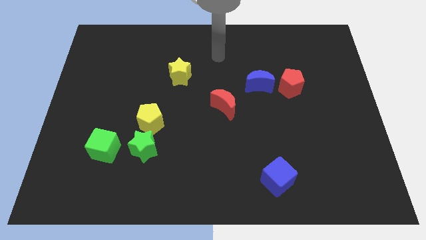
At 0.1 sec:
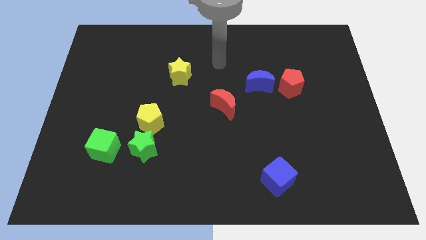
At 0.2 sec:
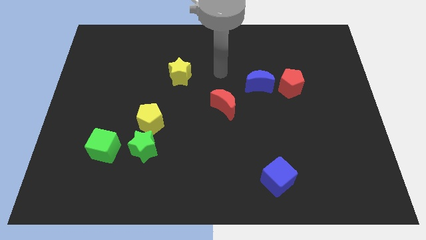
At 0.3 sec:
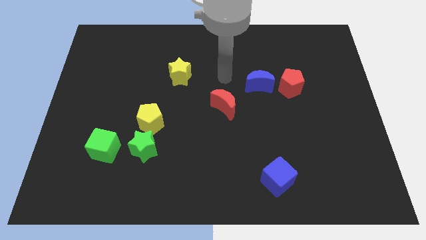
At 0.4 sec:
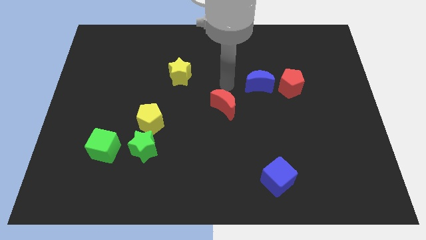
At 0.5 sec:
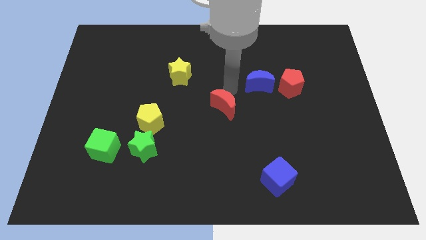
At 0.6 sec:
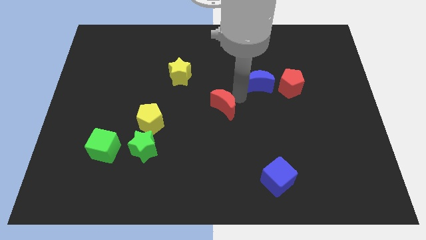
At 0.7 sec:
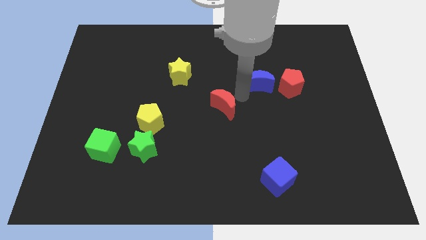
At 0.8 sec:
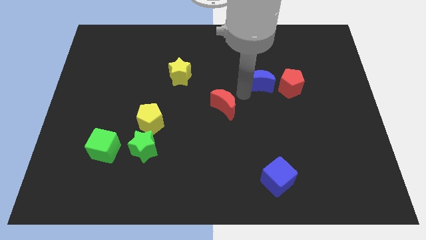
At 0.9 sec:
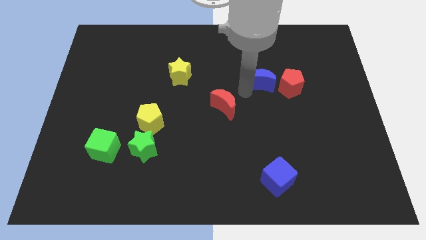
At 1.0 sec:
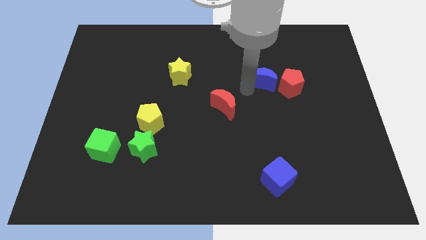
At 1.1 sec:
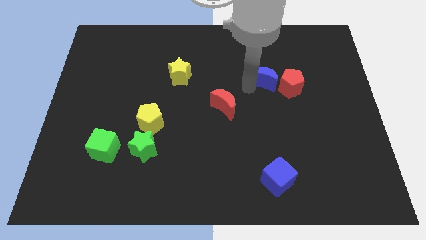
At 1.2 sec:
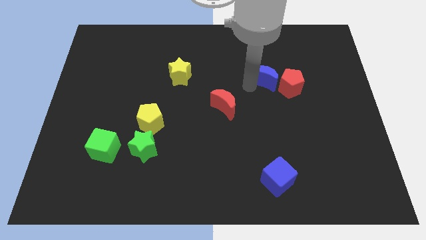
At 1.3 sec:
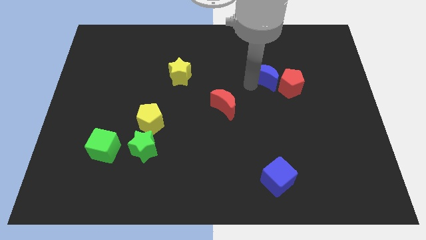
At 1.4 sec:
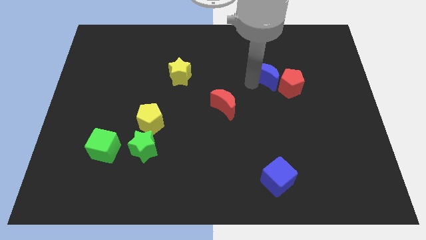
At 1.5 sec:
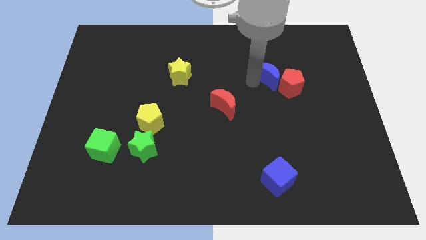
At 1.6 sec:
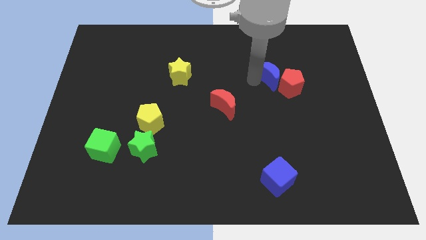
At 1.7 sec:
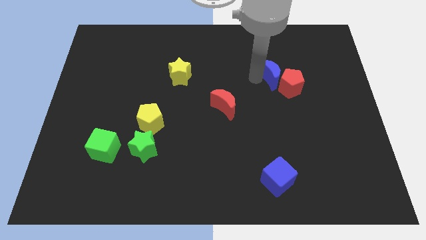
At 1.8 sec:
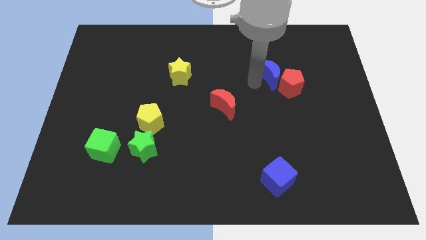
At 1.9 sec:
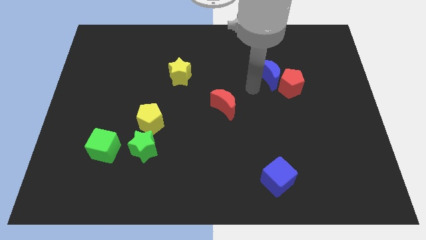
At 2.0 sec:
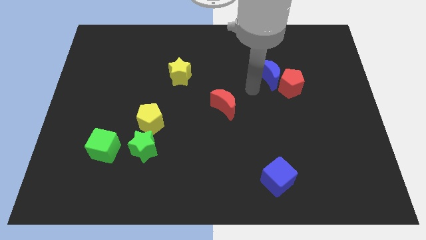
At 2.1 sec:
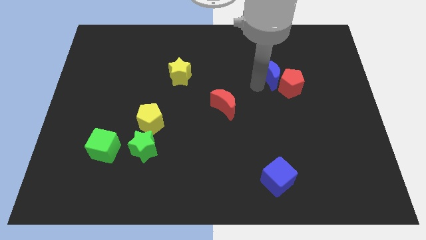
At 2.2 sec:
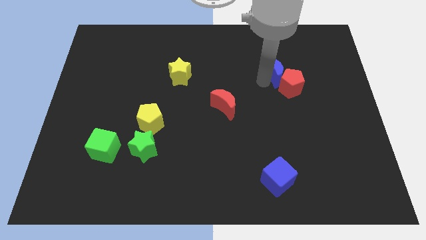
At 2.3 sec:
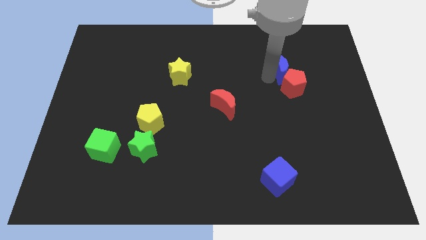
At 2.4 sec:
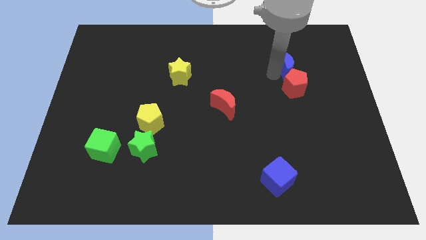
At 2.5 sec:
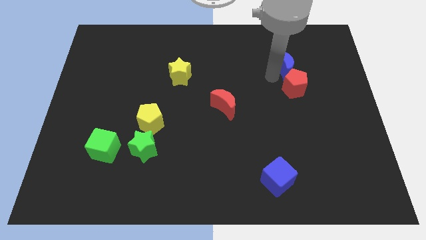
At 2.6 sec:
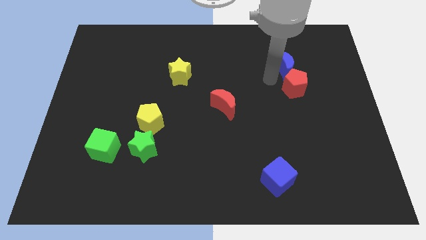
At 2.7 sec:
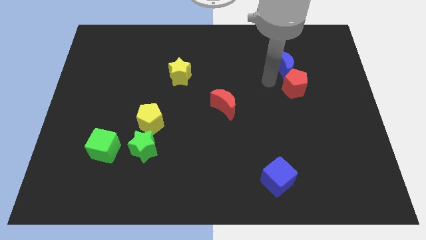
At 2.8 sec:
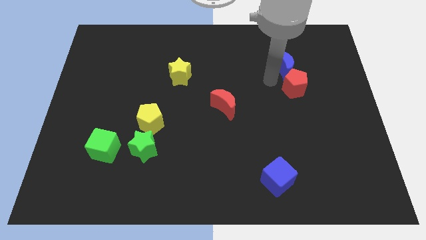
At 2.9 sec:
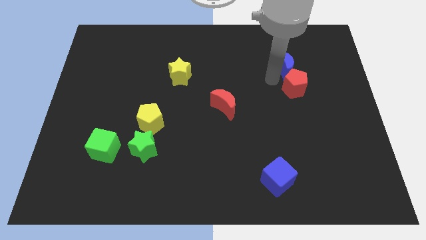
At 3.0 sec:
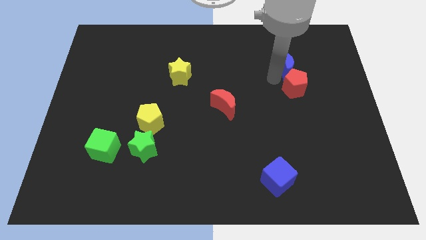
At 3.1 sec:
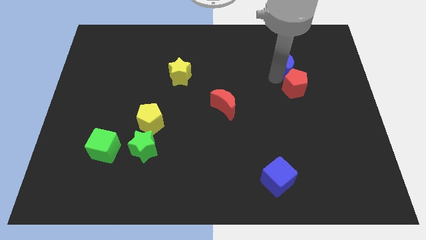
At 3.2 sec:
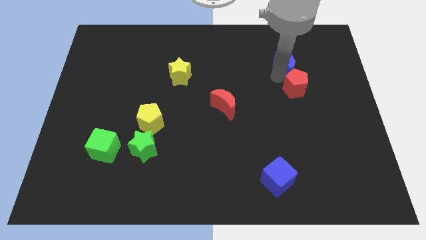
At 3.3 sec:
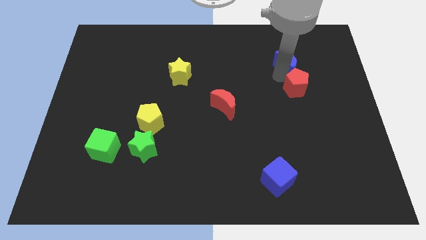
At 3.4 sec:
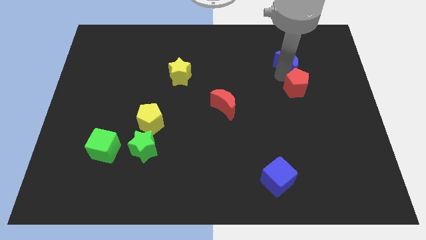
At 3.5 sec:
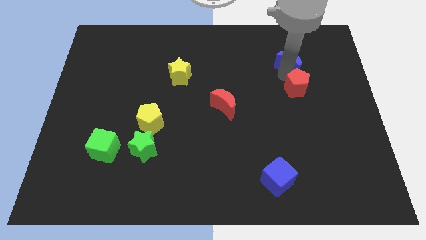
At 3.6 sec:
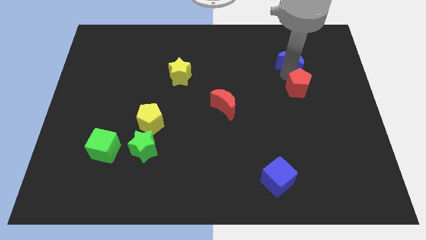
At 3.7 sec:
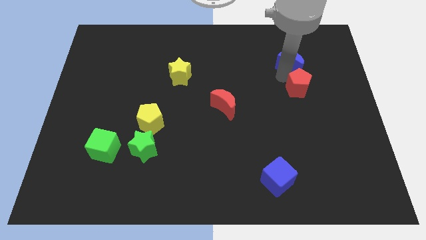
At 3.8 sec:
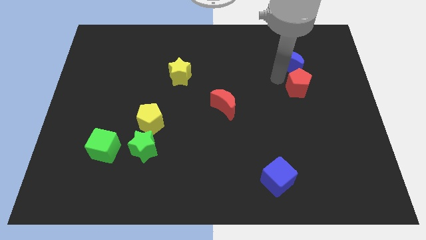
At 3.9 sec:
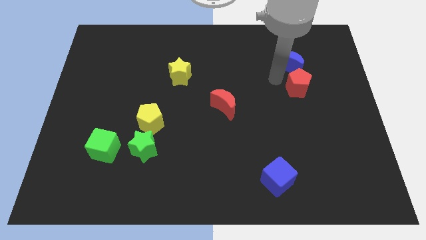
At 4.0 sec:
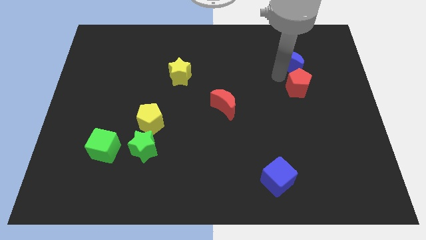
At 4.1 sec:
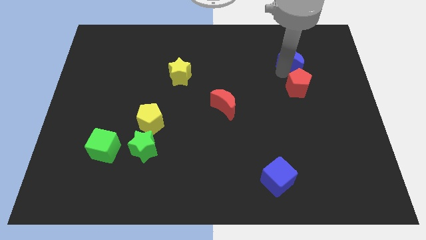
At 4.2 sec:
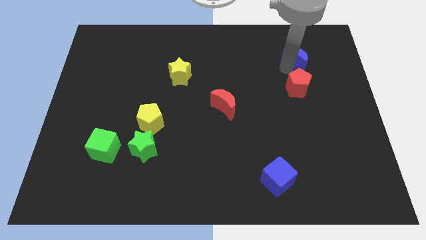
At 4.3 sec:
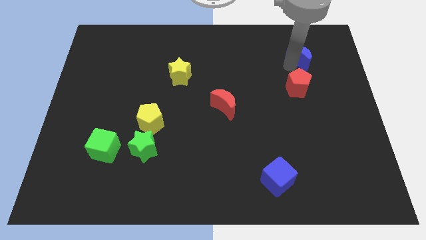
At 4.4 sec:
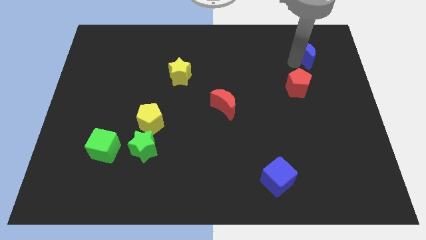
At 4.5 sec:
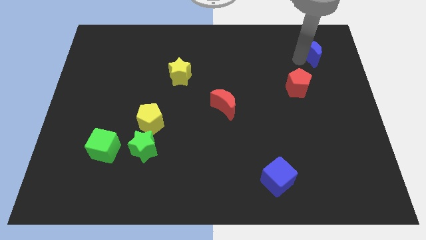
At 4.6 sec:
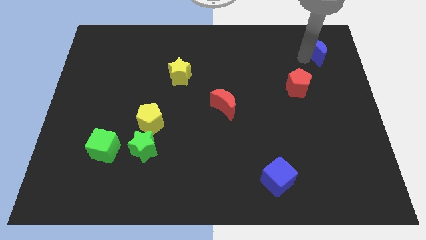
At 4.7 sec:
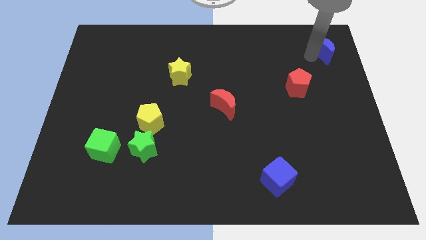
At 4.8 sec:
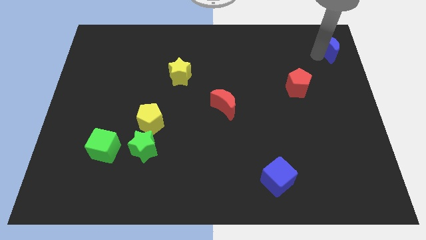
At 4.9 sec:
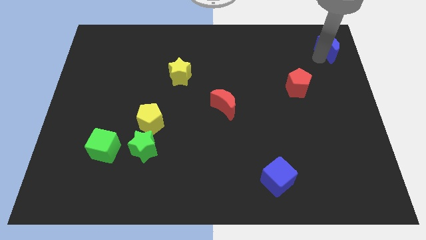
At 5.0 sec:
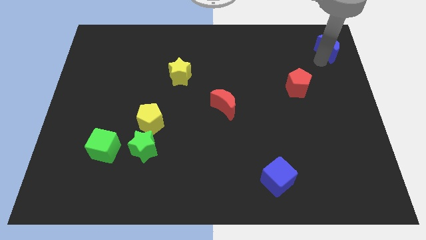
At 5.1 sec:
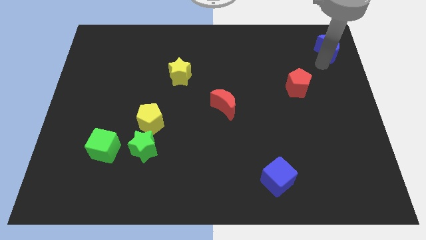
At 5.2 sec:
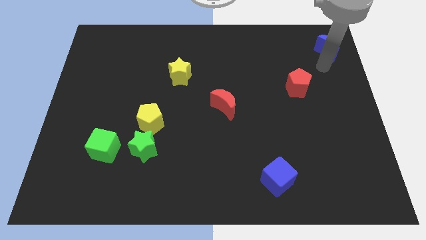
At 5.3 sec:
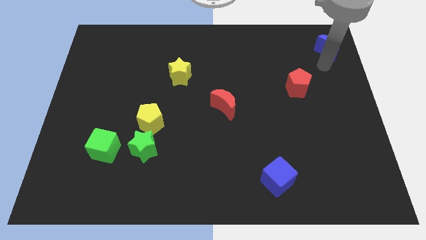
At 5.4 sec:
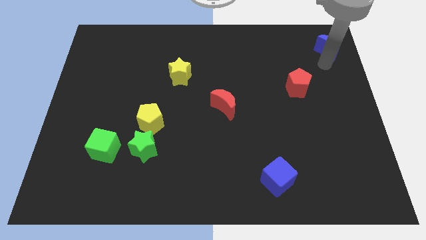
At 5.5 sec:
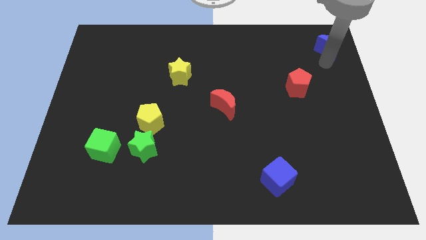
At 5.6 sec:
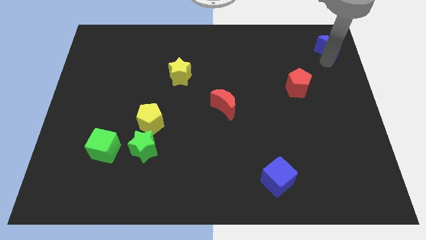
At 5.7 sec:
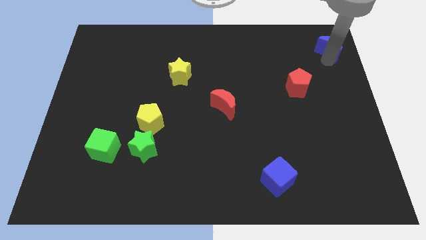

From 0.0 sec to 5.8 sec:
put the blue moon to the top right of the board

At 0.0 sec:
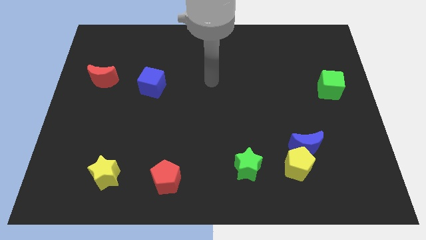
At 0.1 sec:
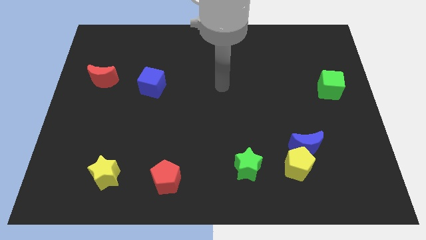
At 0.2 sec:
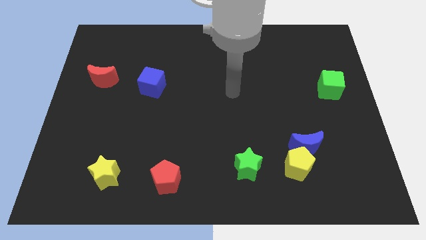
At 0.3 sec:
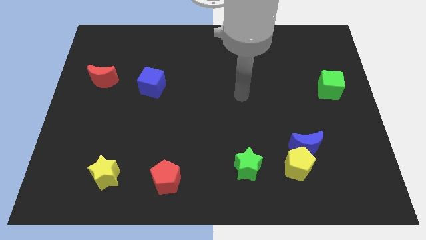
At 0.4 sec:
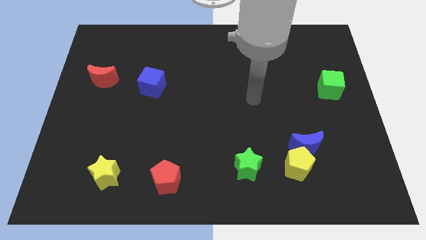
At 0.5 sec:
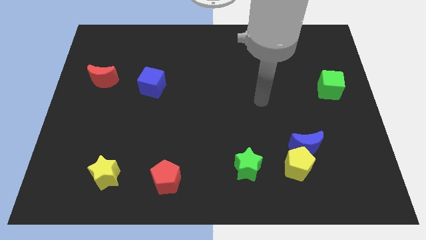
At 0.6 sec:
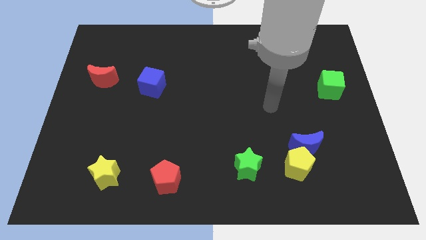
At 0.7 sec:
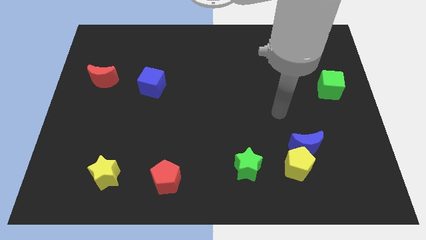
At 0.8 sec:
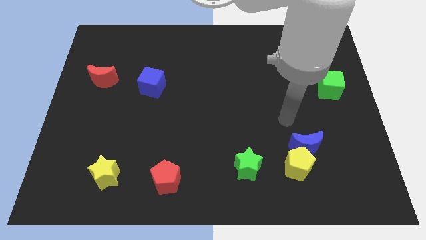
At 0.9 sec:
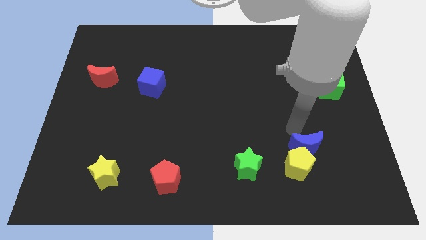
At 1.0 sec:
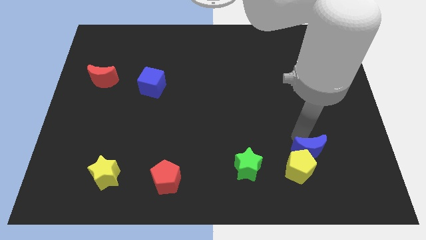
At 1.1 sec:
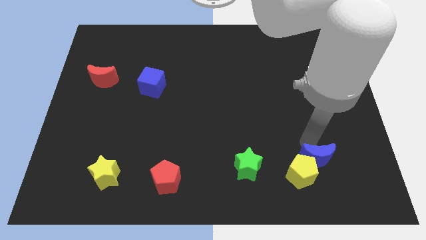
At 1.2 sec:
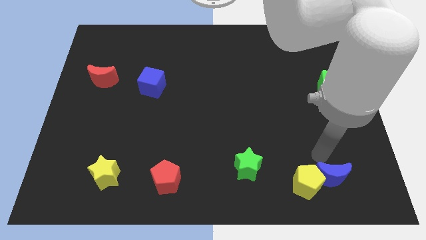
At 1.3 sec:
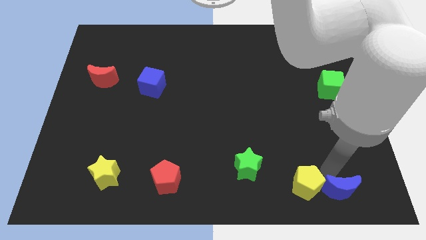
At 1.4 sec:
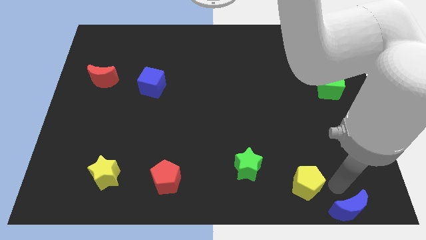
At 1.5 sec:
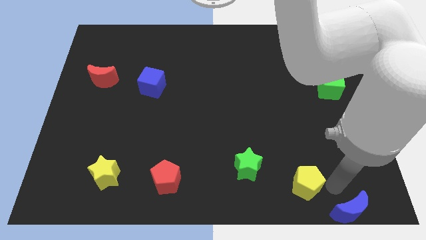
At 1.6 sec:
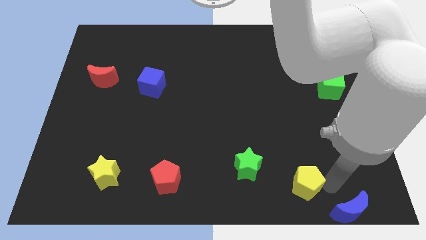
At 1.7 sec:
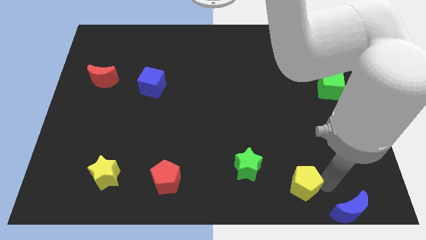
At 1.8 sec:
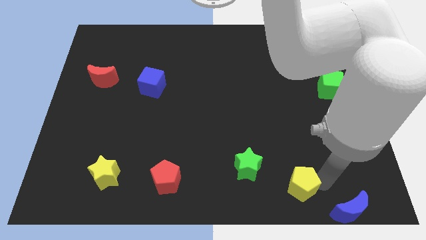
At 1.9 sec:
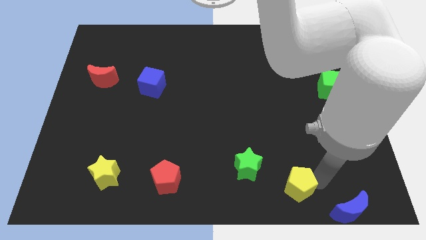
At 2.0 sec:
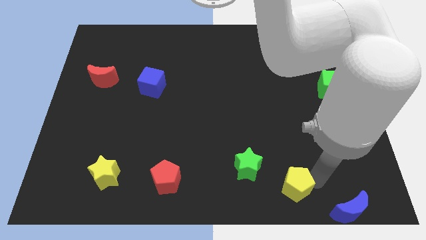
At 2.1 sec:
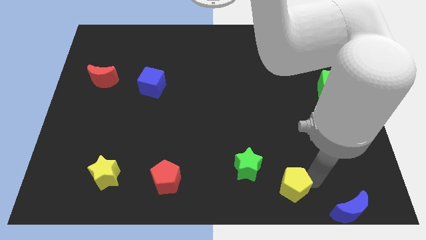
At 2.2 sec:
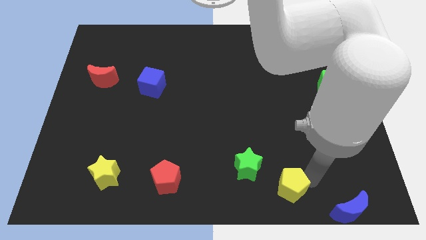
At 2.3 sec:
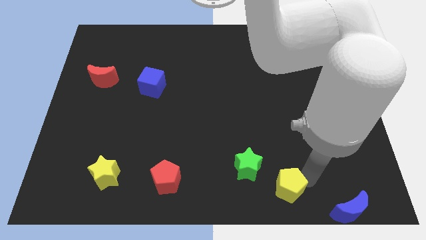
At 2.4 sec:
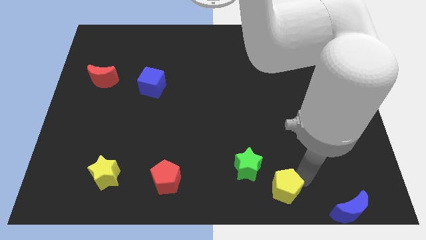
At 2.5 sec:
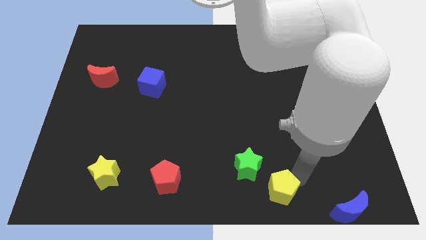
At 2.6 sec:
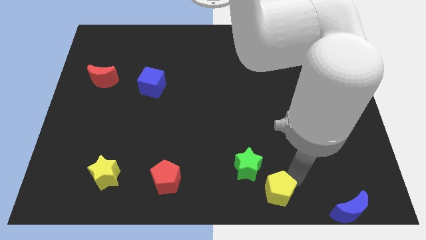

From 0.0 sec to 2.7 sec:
push the yellow pentagon to the bottom
